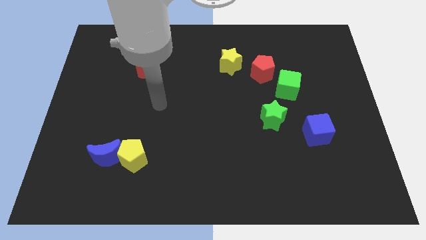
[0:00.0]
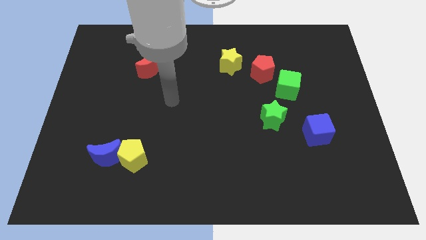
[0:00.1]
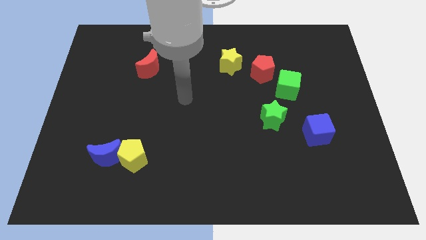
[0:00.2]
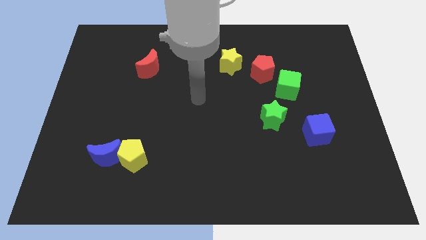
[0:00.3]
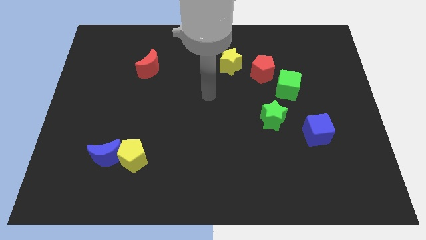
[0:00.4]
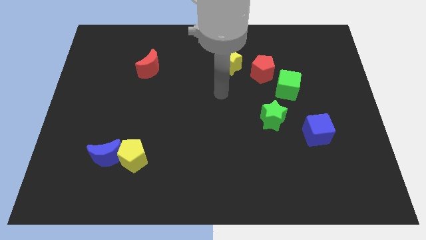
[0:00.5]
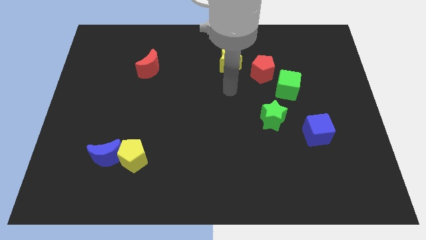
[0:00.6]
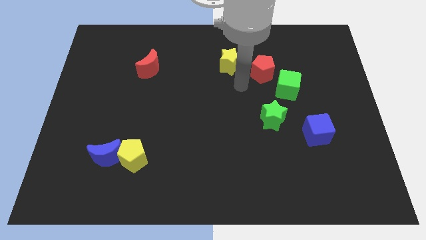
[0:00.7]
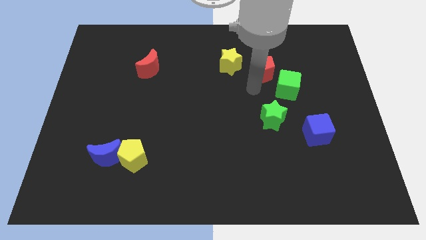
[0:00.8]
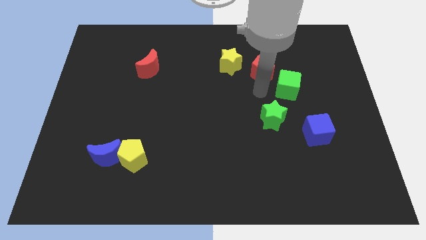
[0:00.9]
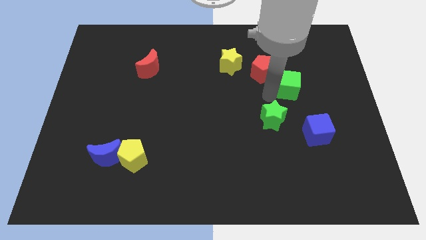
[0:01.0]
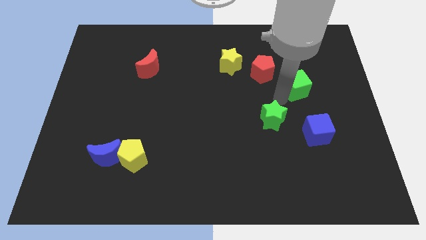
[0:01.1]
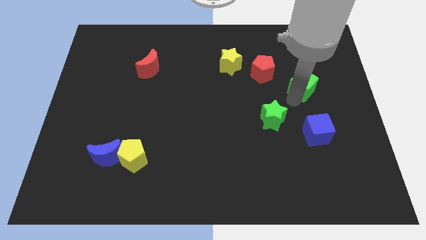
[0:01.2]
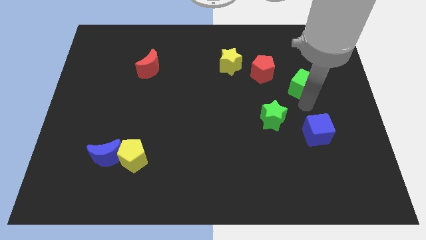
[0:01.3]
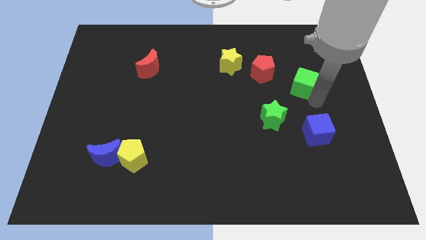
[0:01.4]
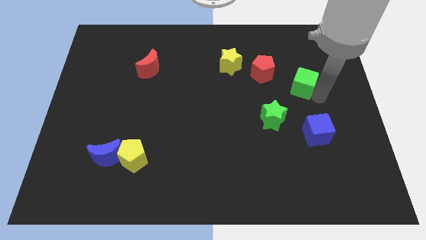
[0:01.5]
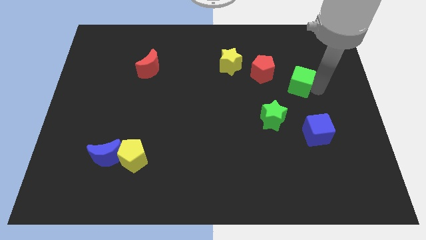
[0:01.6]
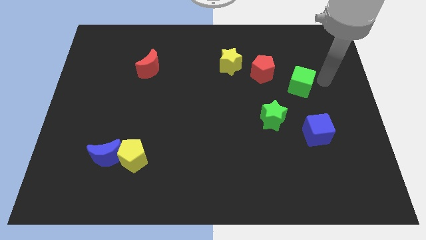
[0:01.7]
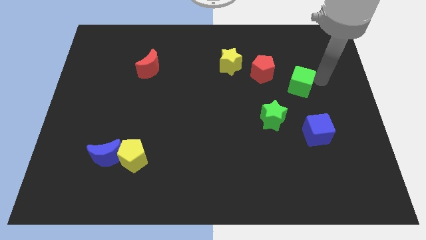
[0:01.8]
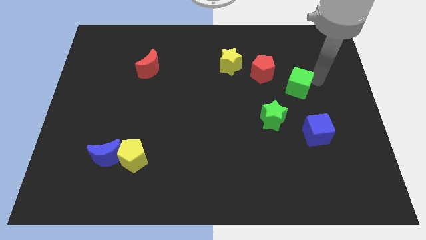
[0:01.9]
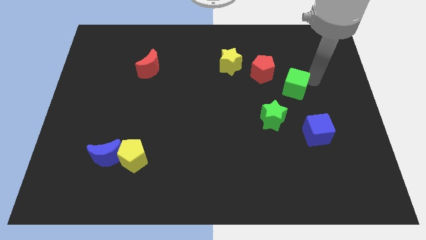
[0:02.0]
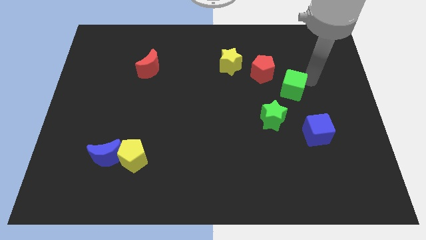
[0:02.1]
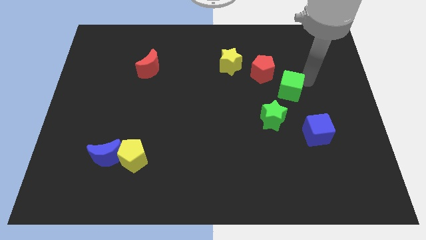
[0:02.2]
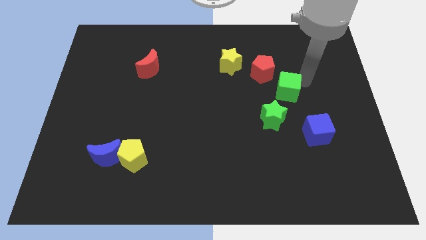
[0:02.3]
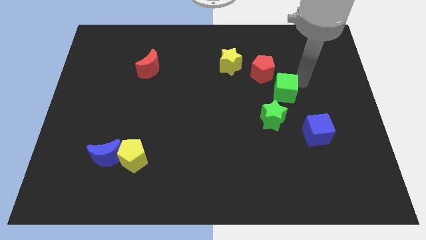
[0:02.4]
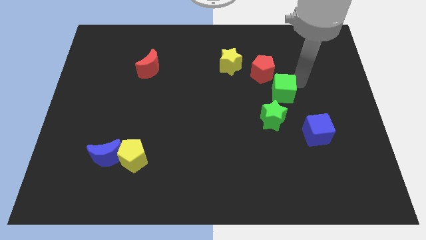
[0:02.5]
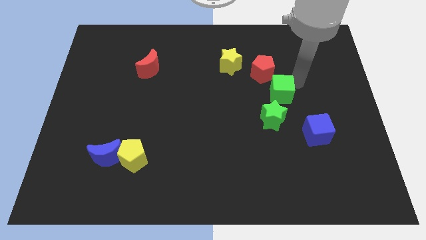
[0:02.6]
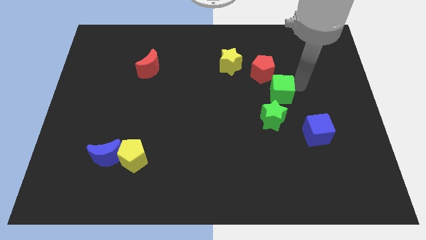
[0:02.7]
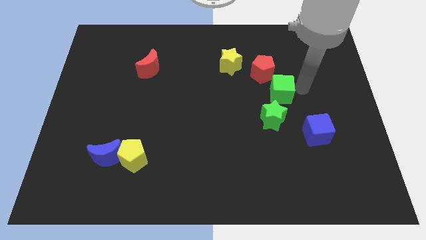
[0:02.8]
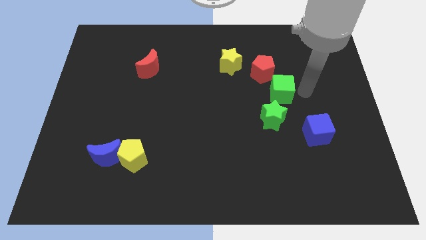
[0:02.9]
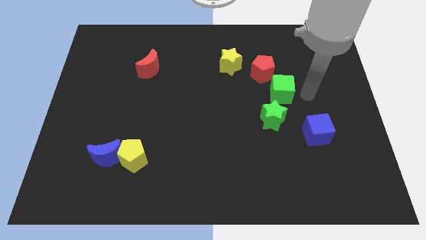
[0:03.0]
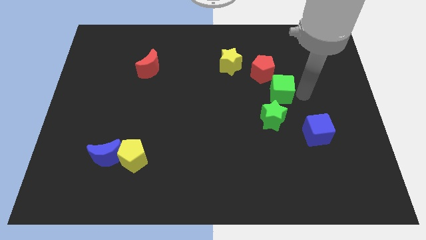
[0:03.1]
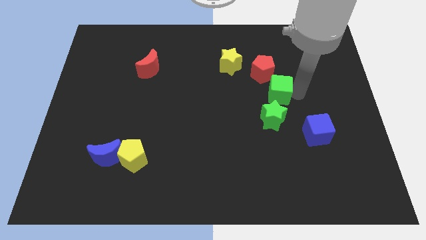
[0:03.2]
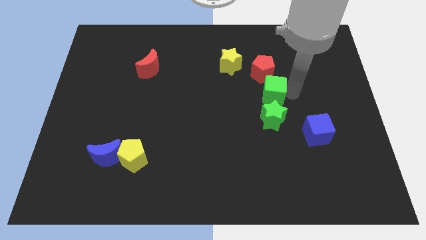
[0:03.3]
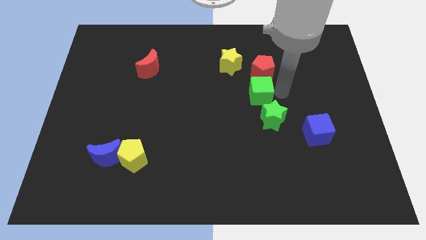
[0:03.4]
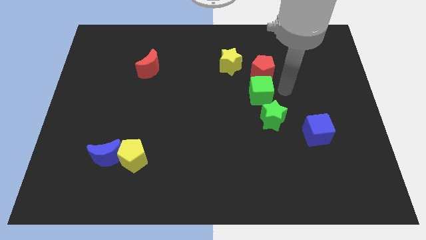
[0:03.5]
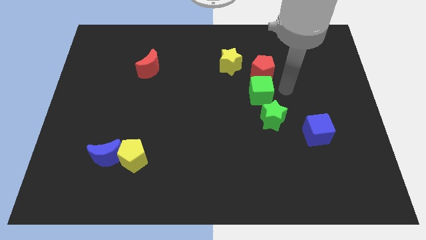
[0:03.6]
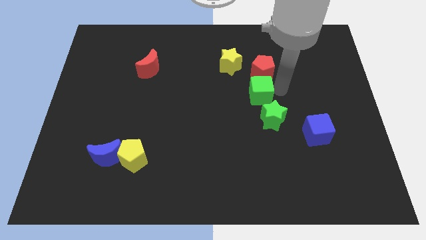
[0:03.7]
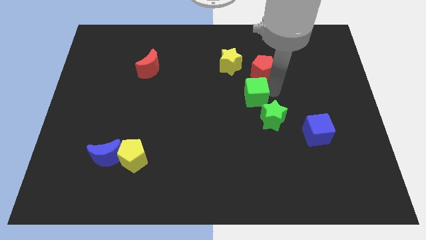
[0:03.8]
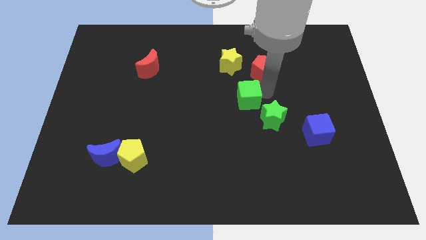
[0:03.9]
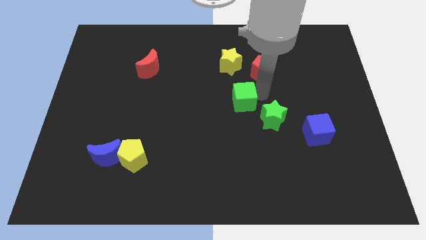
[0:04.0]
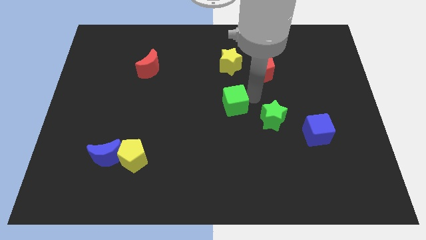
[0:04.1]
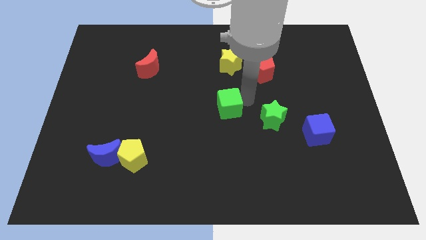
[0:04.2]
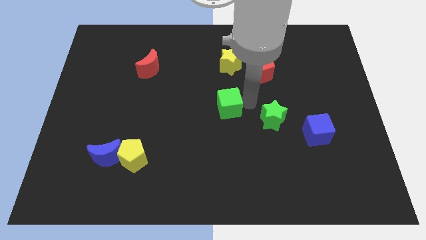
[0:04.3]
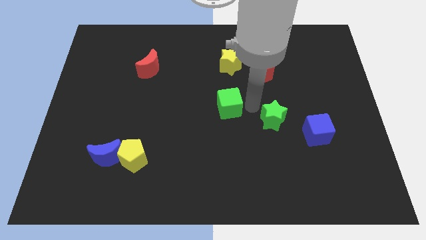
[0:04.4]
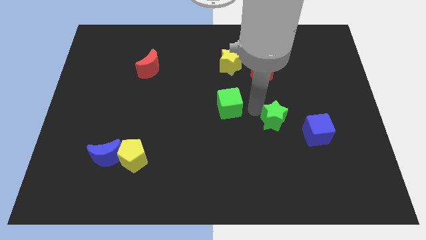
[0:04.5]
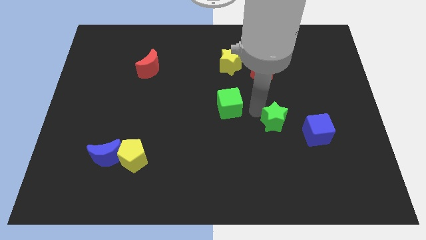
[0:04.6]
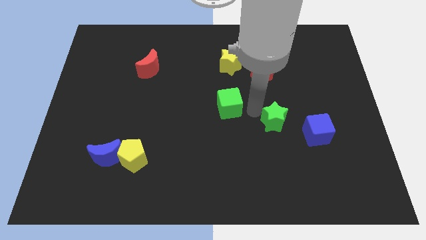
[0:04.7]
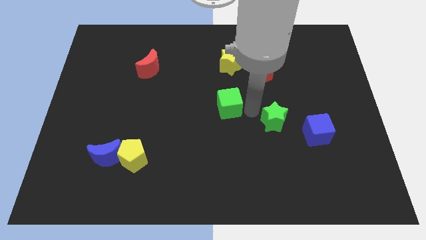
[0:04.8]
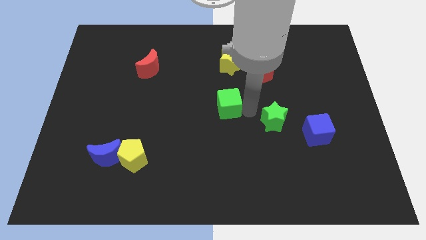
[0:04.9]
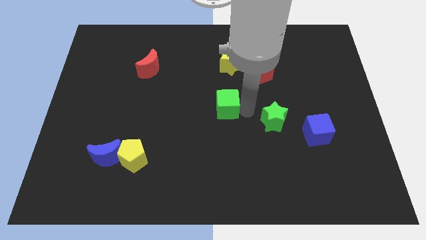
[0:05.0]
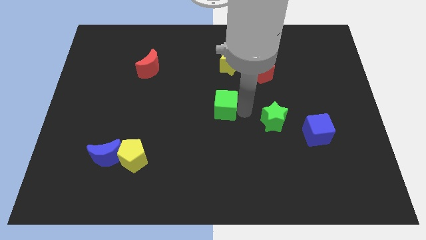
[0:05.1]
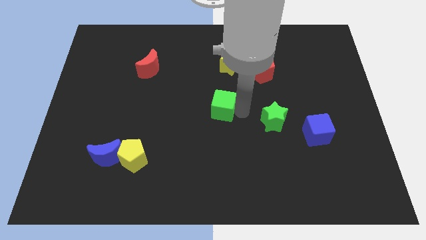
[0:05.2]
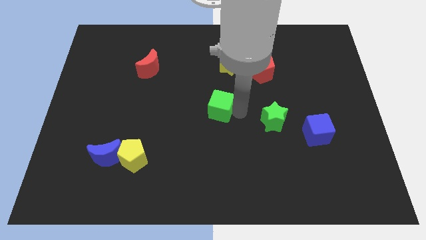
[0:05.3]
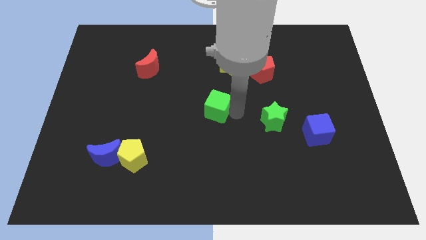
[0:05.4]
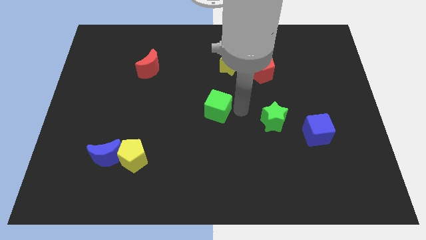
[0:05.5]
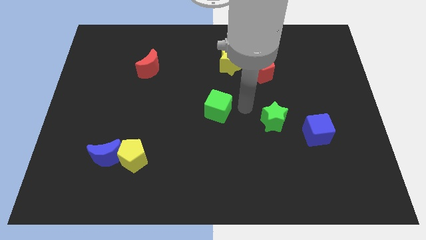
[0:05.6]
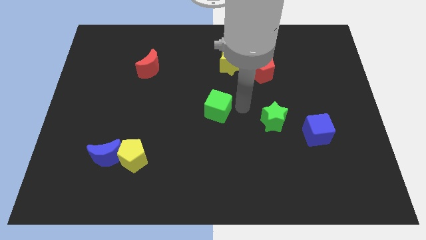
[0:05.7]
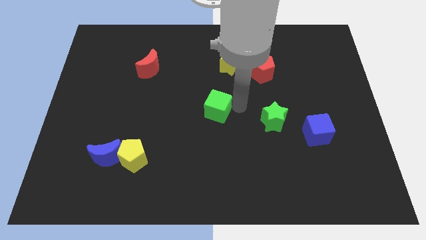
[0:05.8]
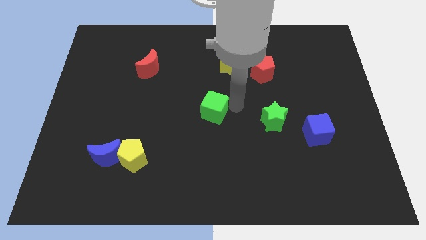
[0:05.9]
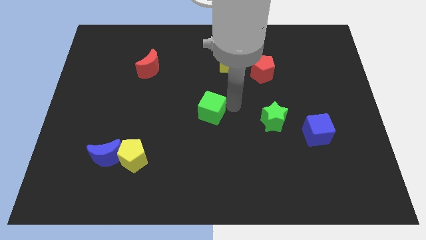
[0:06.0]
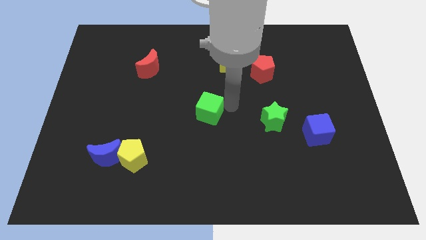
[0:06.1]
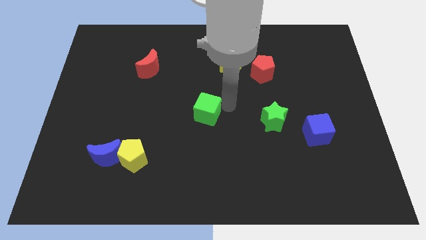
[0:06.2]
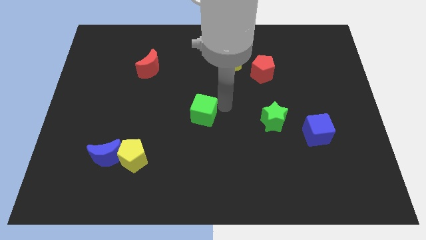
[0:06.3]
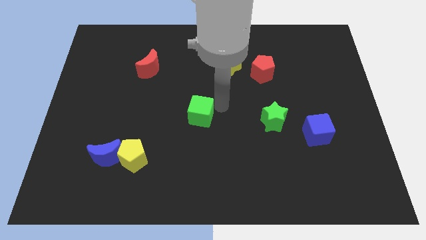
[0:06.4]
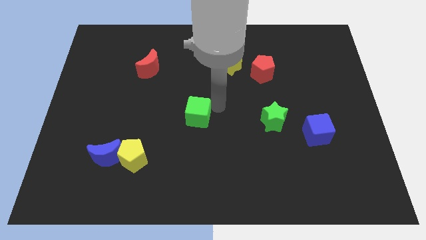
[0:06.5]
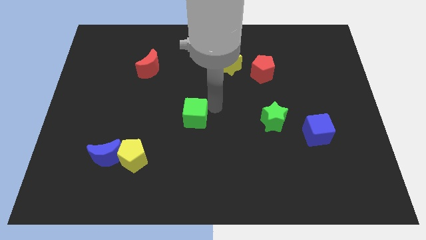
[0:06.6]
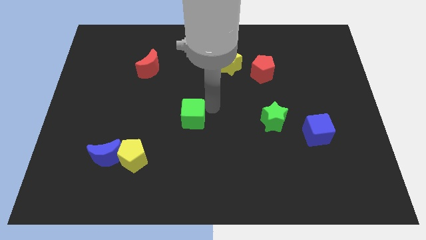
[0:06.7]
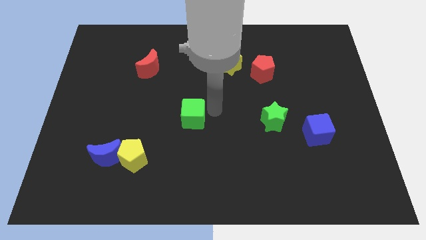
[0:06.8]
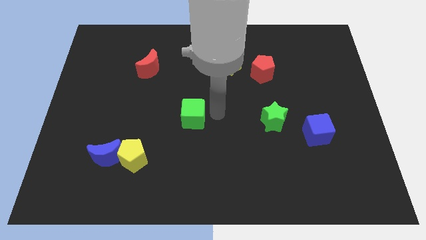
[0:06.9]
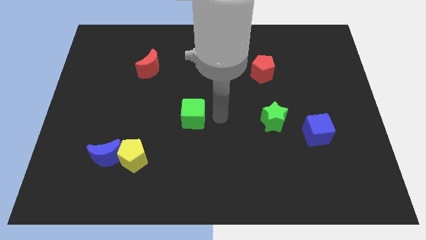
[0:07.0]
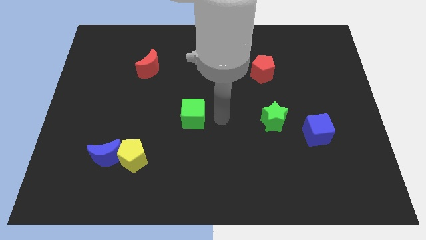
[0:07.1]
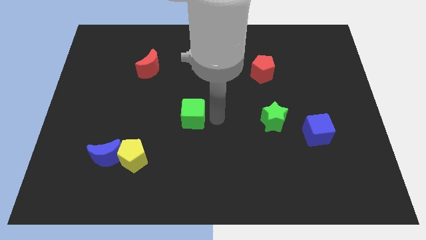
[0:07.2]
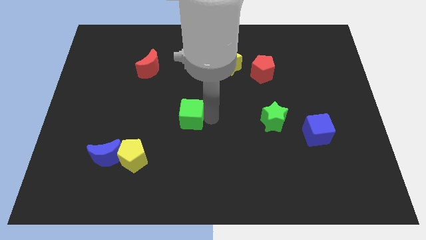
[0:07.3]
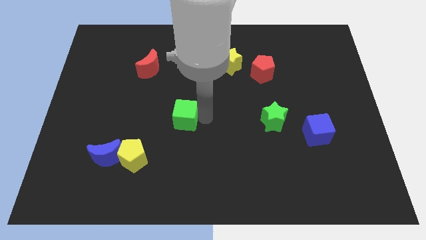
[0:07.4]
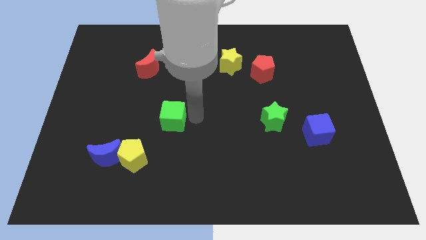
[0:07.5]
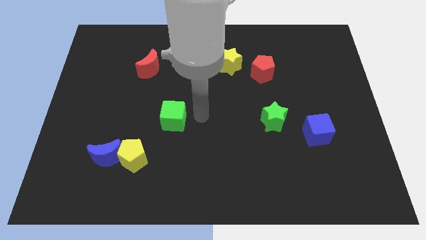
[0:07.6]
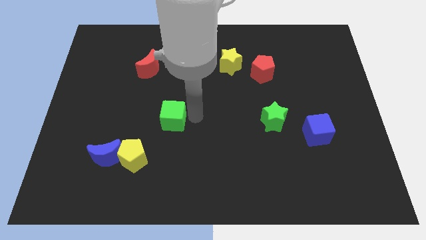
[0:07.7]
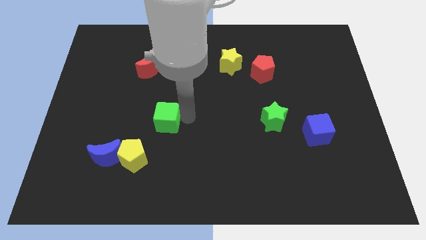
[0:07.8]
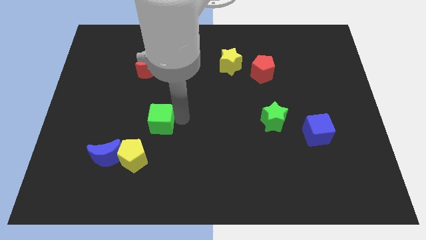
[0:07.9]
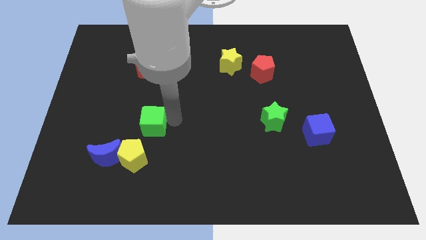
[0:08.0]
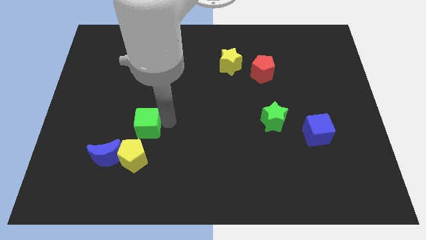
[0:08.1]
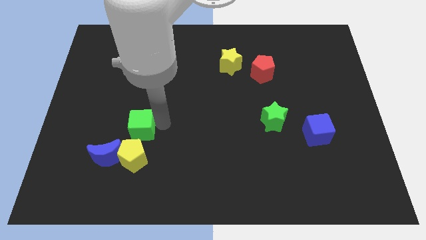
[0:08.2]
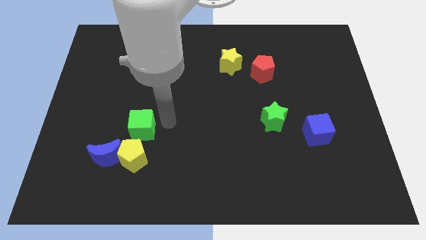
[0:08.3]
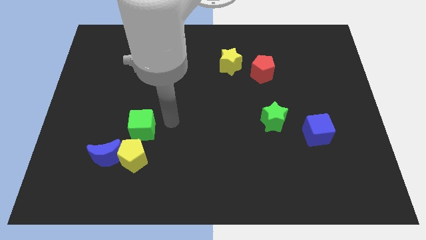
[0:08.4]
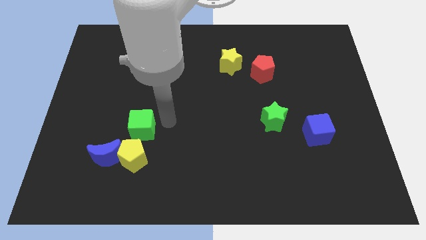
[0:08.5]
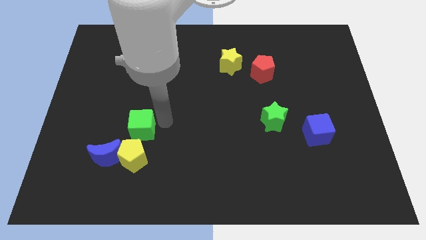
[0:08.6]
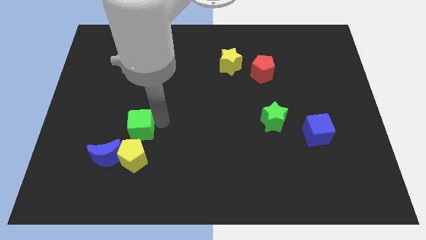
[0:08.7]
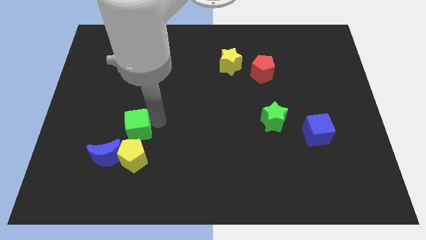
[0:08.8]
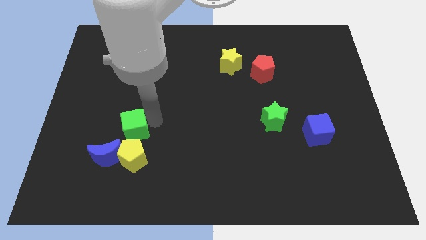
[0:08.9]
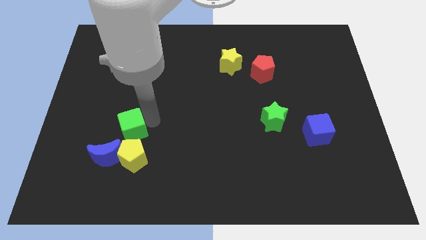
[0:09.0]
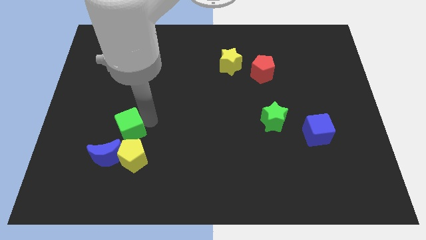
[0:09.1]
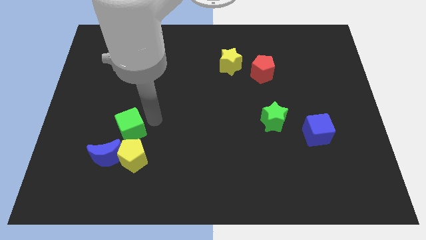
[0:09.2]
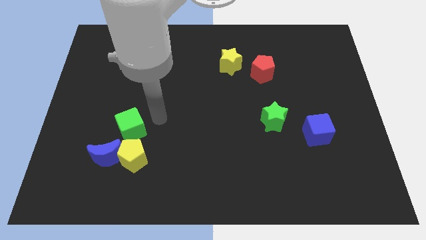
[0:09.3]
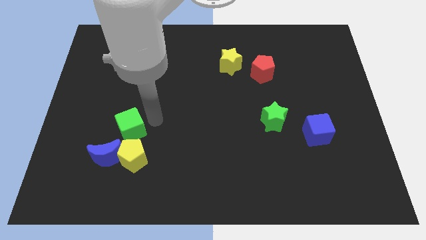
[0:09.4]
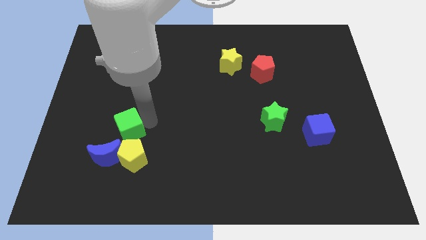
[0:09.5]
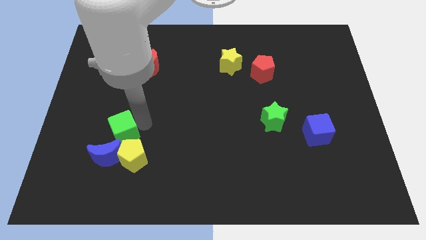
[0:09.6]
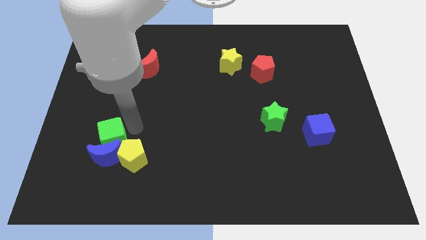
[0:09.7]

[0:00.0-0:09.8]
put the green cube to the top left side of the blue moon
